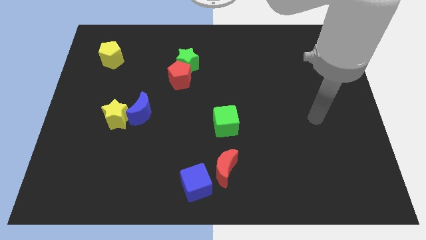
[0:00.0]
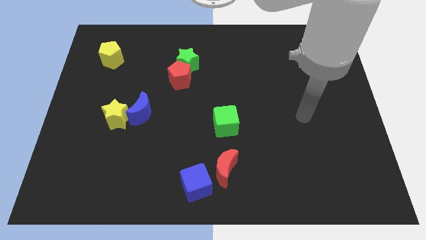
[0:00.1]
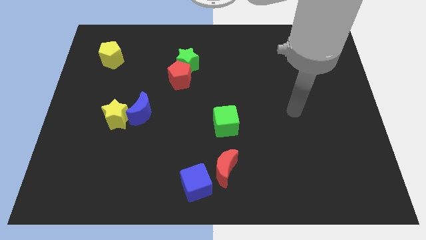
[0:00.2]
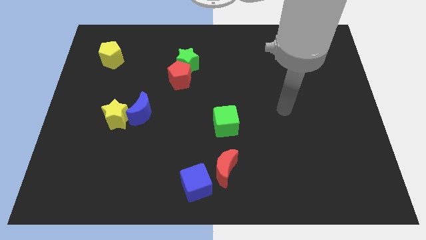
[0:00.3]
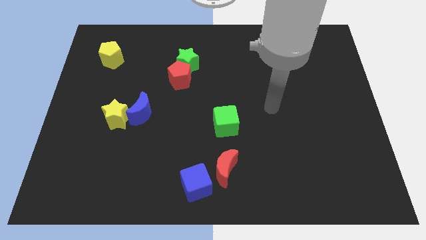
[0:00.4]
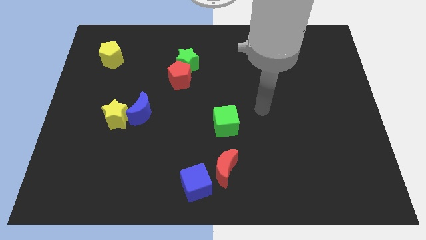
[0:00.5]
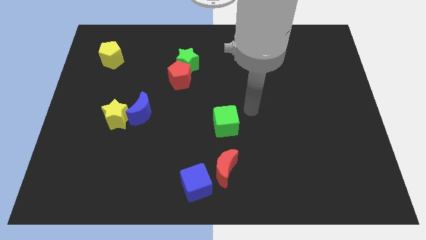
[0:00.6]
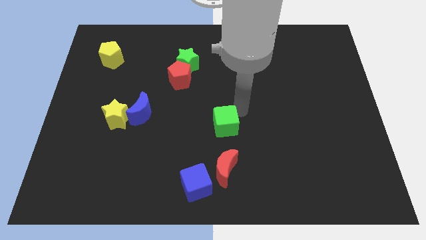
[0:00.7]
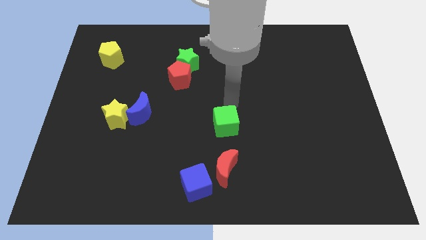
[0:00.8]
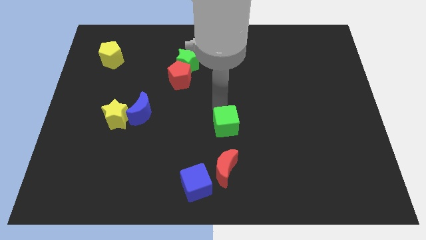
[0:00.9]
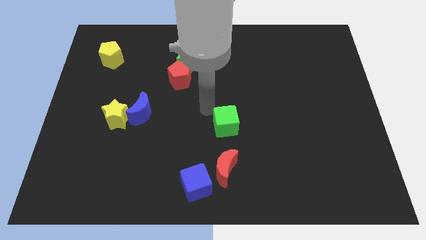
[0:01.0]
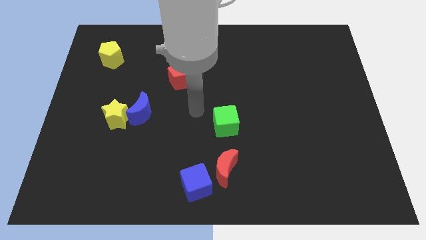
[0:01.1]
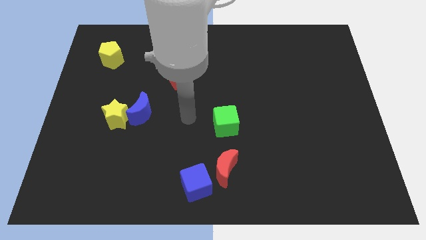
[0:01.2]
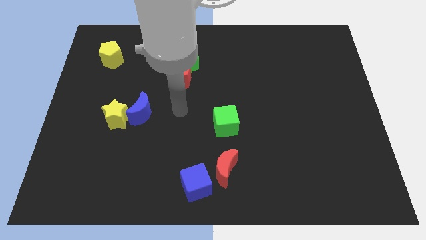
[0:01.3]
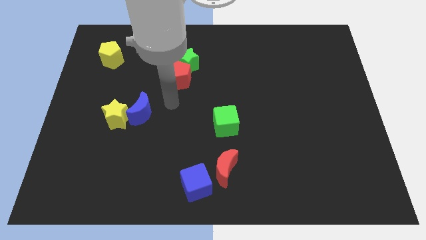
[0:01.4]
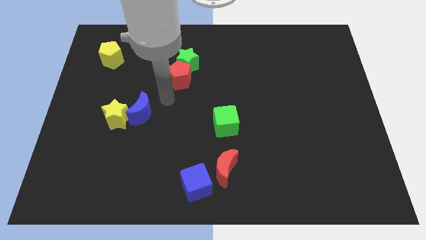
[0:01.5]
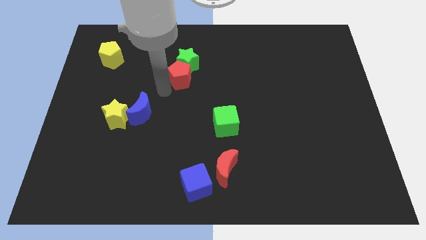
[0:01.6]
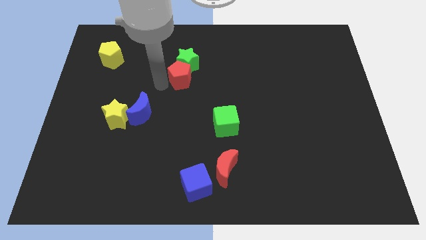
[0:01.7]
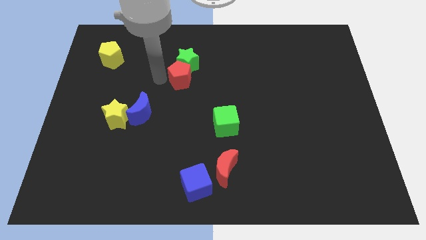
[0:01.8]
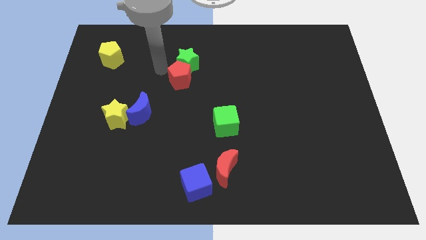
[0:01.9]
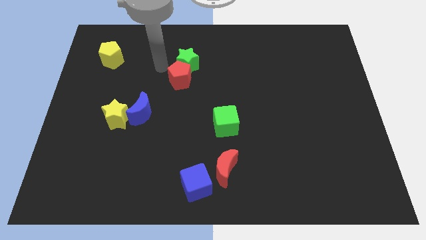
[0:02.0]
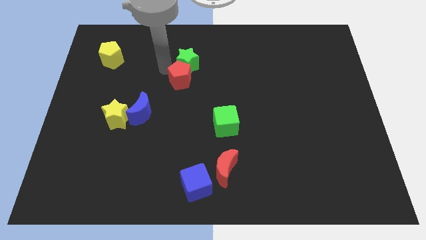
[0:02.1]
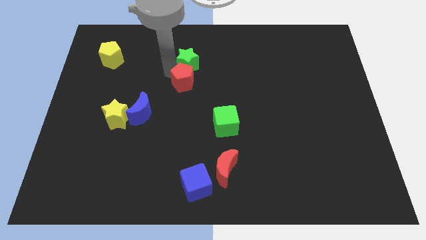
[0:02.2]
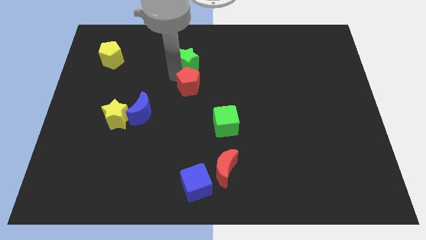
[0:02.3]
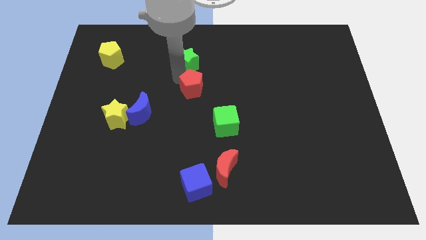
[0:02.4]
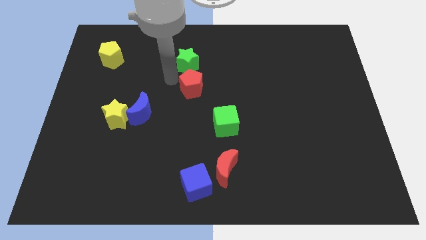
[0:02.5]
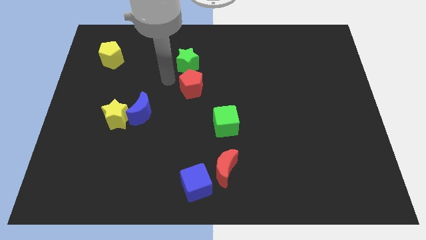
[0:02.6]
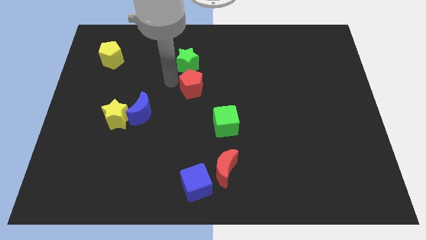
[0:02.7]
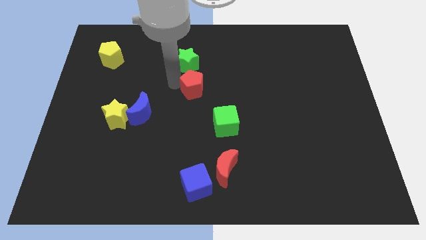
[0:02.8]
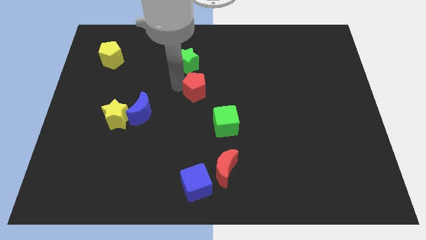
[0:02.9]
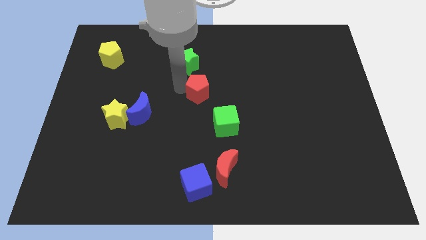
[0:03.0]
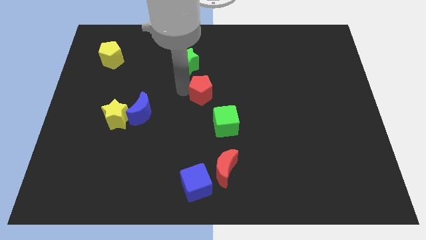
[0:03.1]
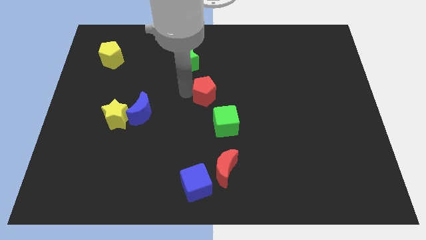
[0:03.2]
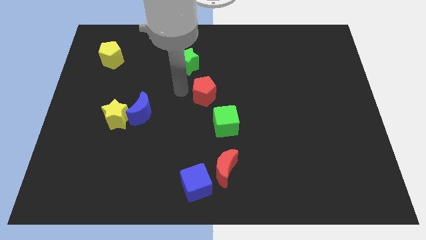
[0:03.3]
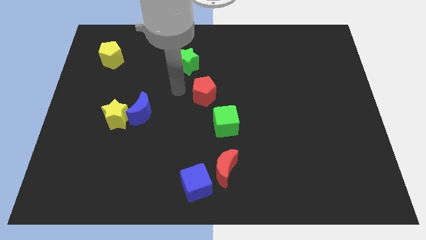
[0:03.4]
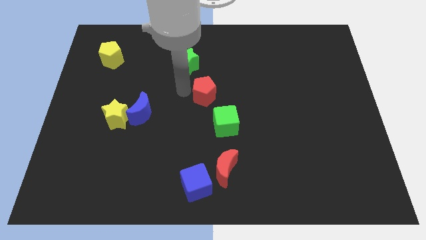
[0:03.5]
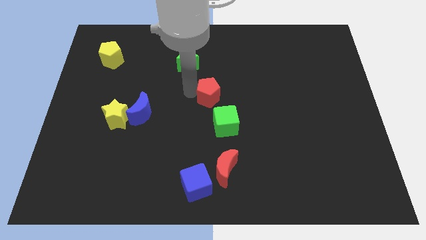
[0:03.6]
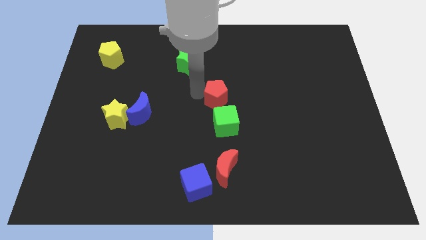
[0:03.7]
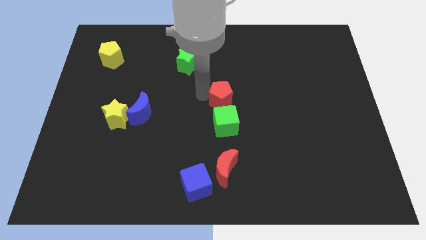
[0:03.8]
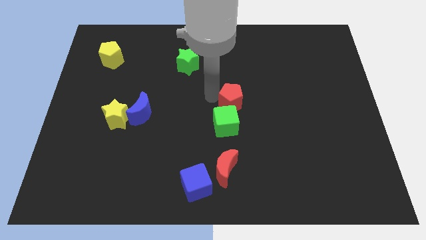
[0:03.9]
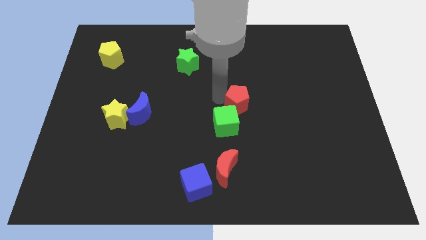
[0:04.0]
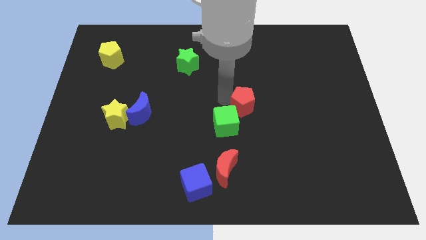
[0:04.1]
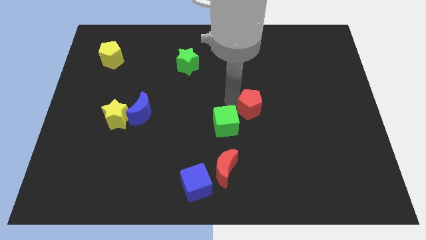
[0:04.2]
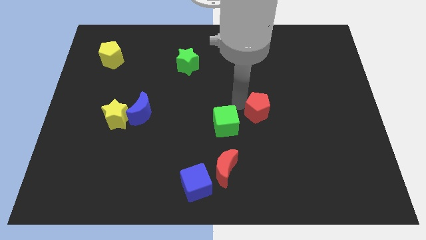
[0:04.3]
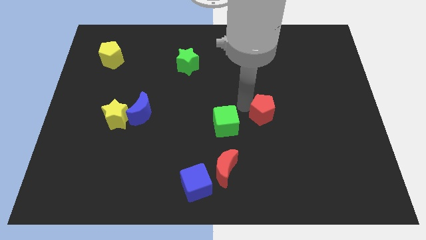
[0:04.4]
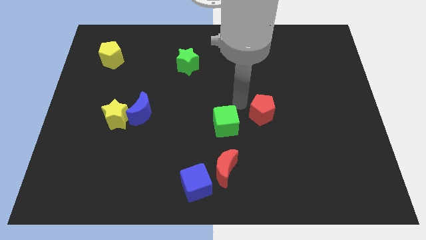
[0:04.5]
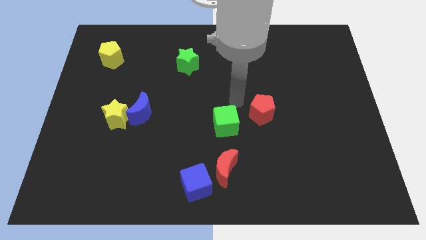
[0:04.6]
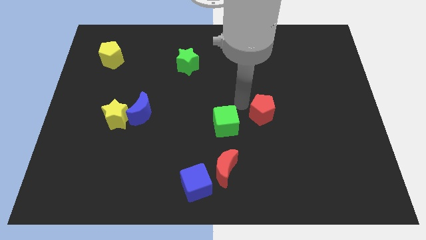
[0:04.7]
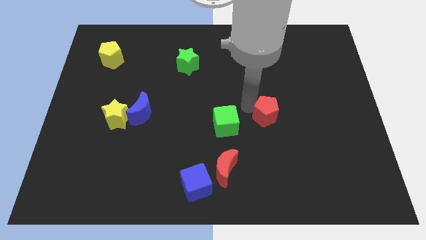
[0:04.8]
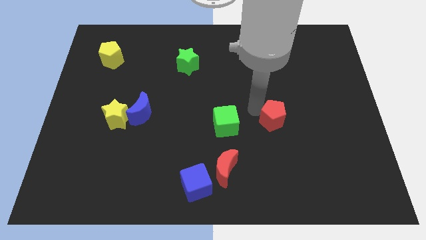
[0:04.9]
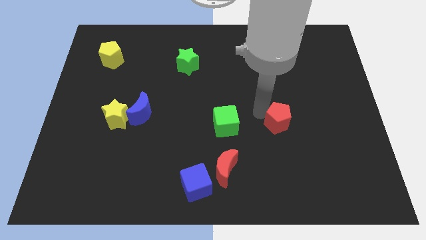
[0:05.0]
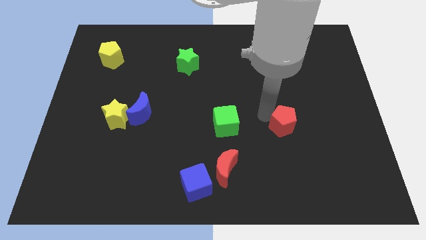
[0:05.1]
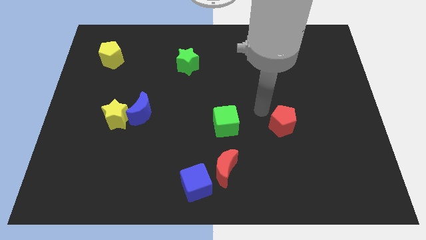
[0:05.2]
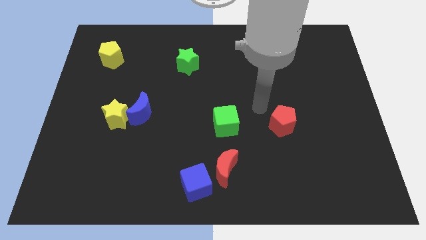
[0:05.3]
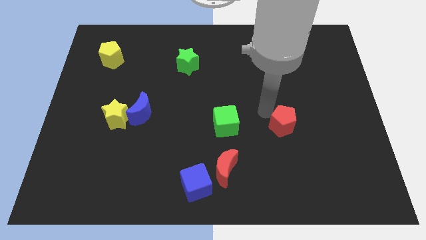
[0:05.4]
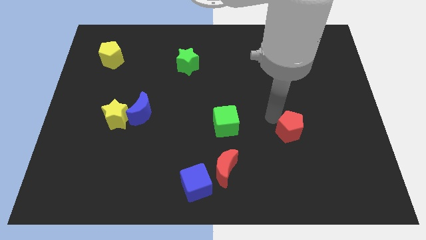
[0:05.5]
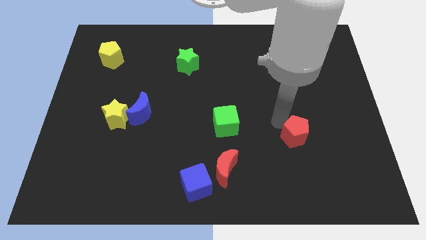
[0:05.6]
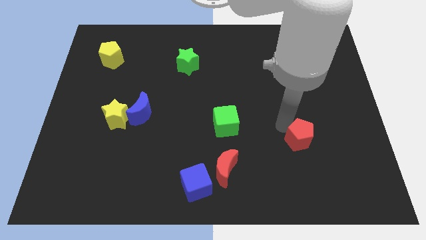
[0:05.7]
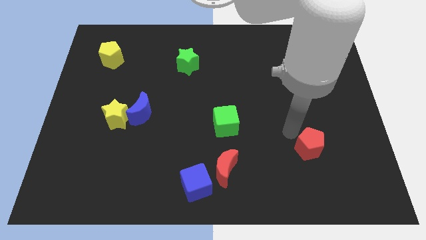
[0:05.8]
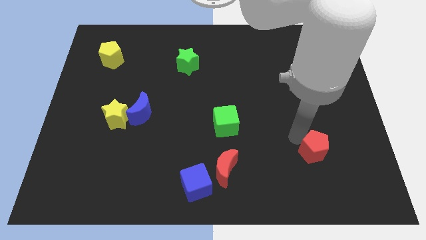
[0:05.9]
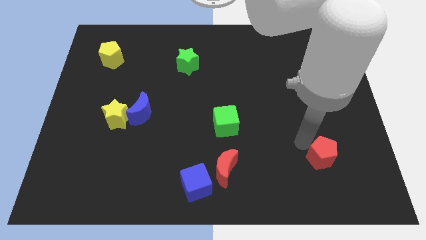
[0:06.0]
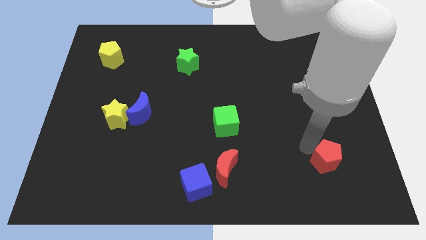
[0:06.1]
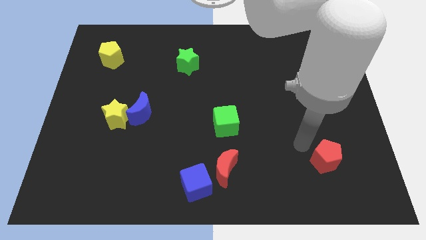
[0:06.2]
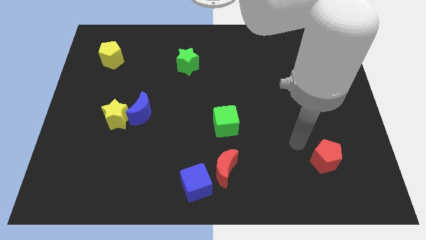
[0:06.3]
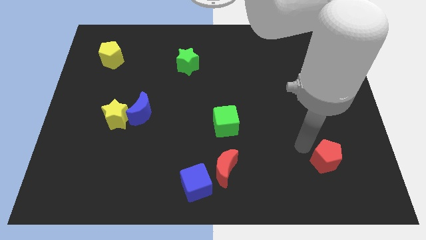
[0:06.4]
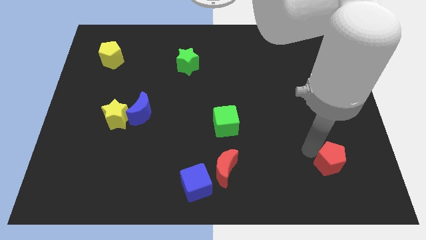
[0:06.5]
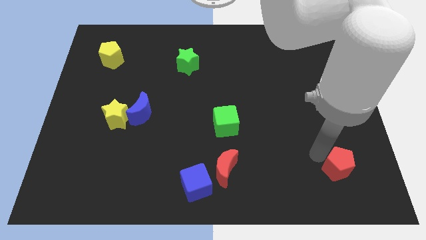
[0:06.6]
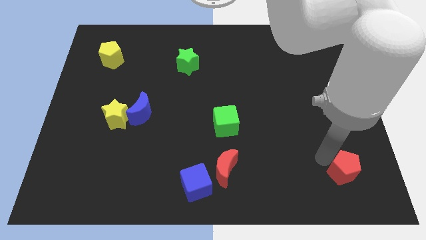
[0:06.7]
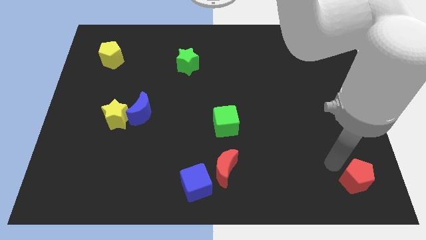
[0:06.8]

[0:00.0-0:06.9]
put the red pentagon to the bottom right of the board
